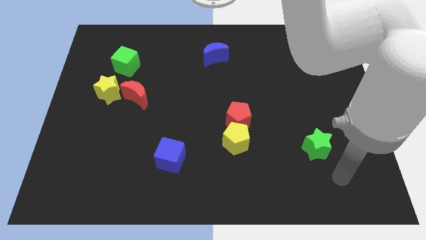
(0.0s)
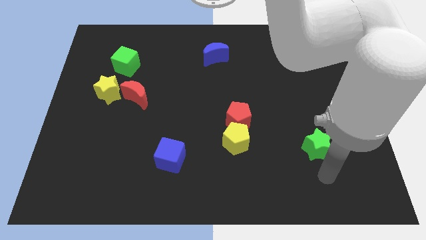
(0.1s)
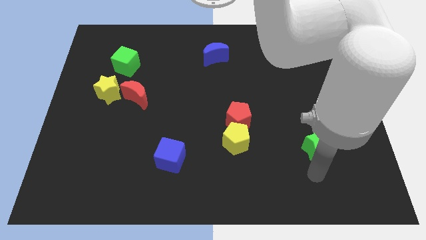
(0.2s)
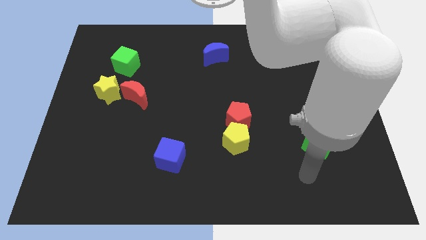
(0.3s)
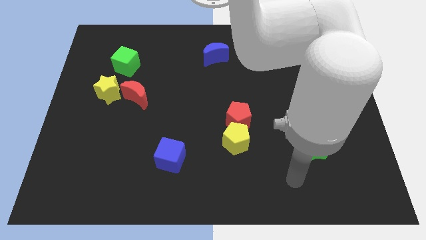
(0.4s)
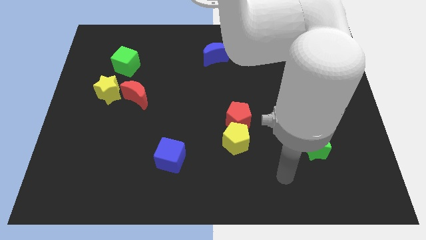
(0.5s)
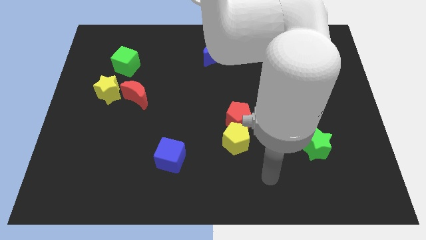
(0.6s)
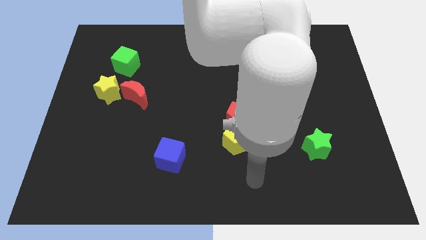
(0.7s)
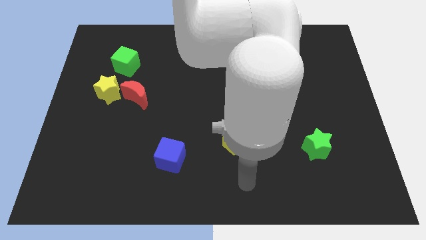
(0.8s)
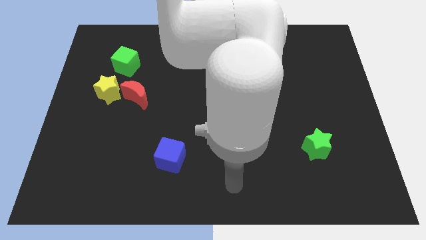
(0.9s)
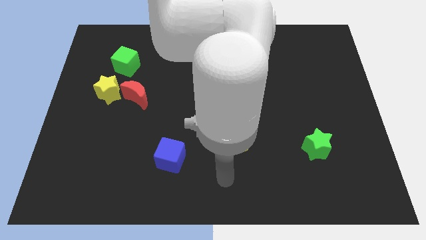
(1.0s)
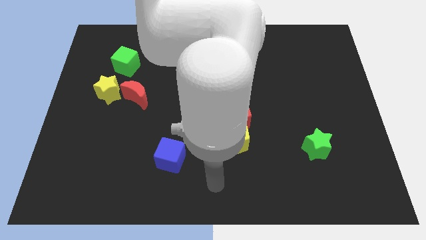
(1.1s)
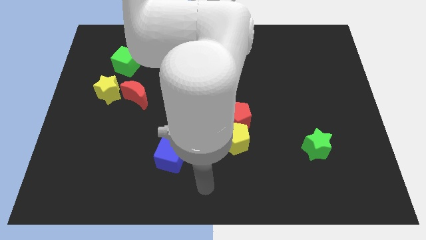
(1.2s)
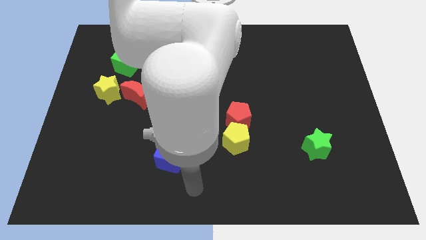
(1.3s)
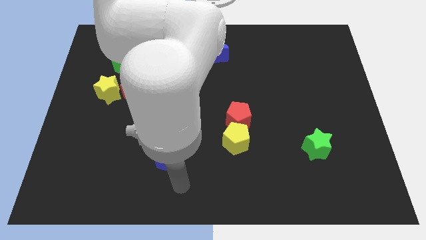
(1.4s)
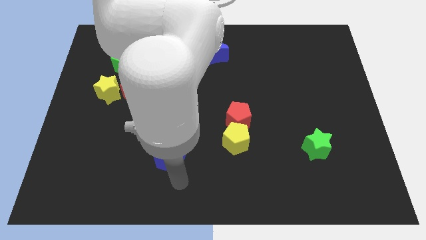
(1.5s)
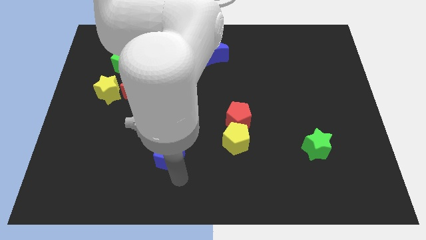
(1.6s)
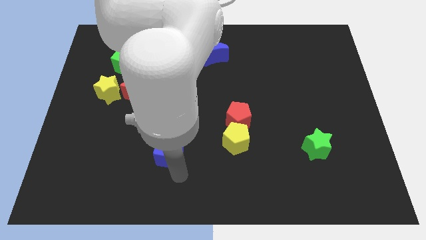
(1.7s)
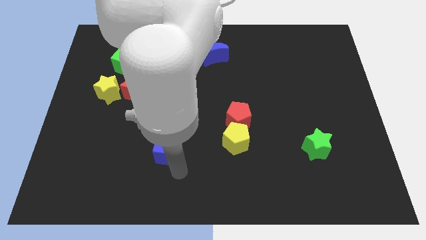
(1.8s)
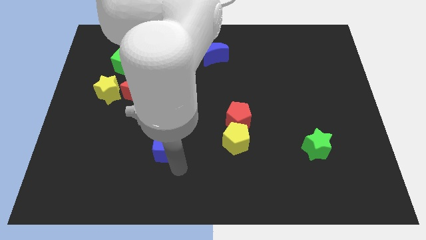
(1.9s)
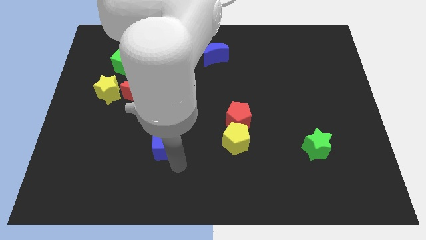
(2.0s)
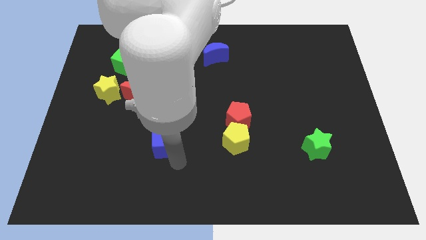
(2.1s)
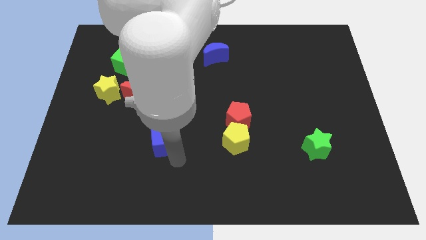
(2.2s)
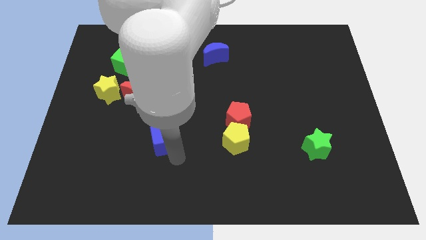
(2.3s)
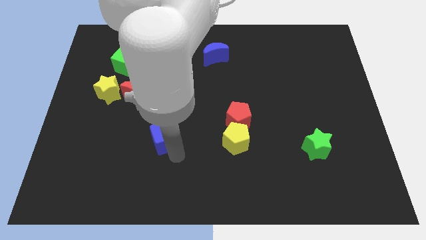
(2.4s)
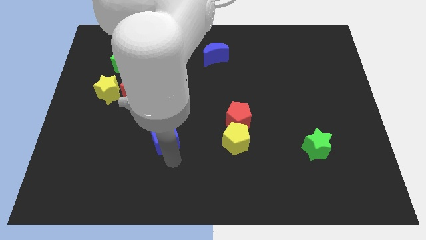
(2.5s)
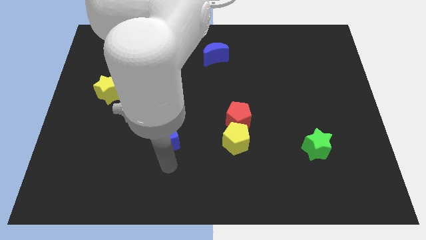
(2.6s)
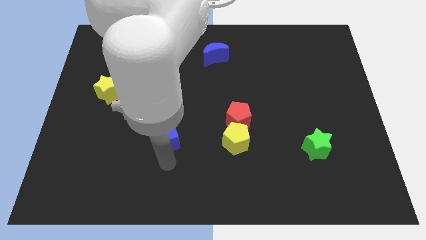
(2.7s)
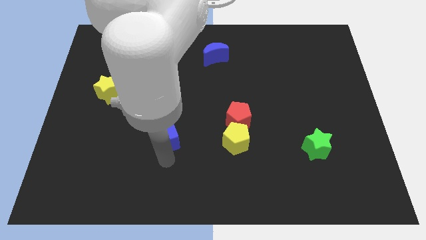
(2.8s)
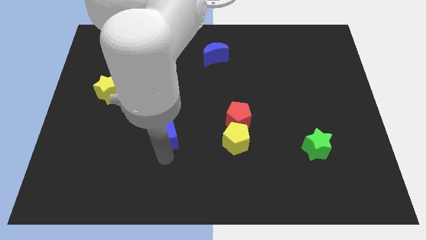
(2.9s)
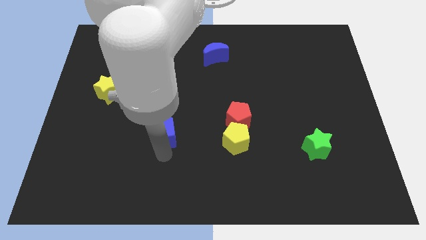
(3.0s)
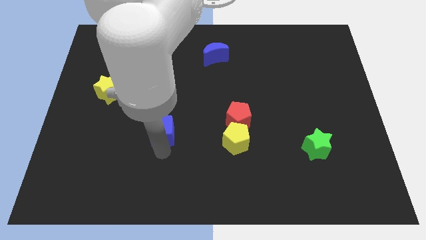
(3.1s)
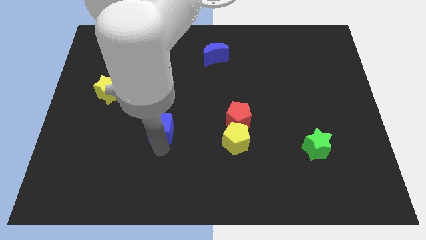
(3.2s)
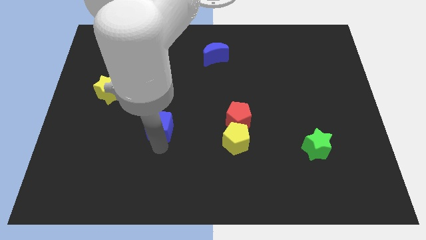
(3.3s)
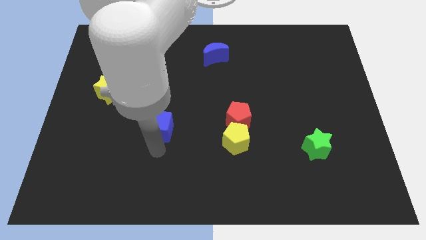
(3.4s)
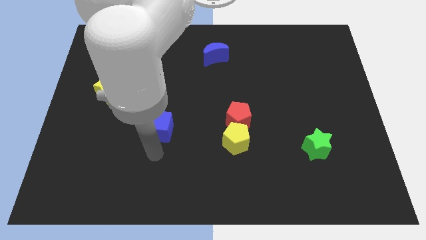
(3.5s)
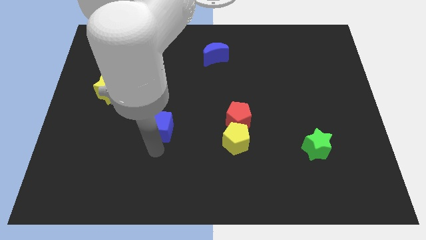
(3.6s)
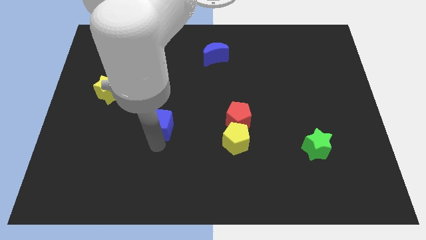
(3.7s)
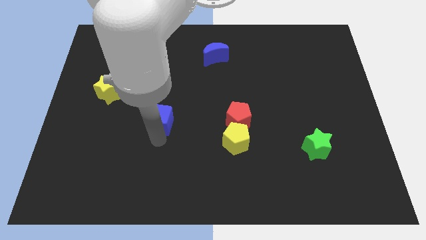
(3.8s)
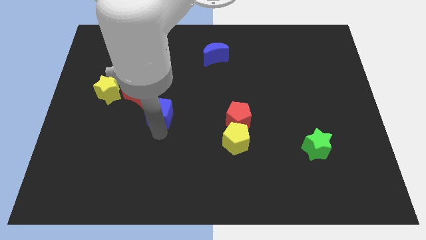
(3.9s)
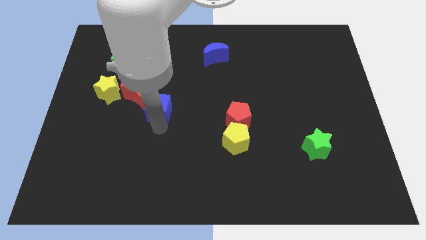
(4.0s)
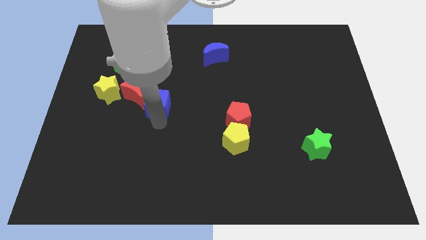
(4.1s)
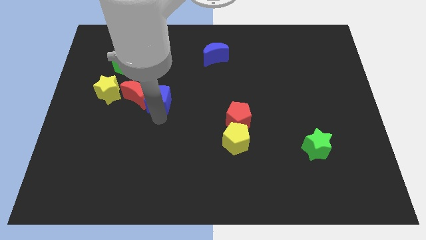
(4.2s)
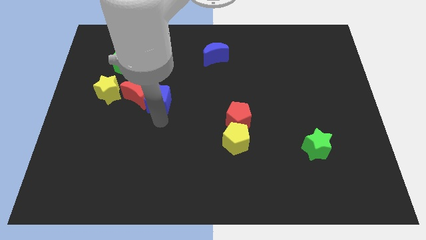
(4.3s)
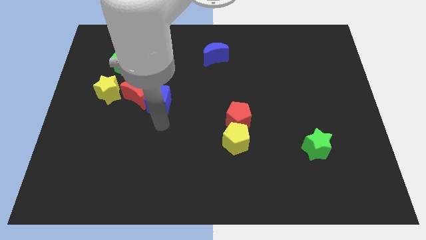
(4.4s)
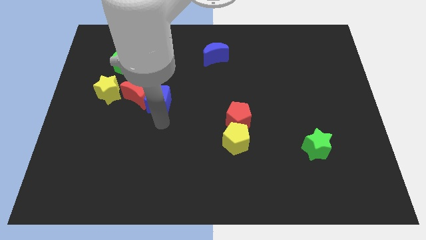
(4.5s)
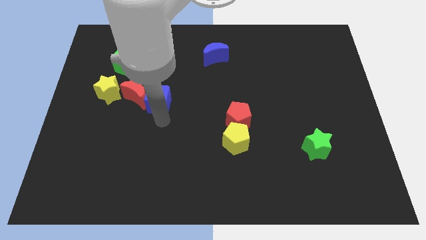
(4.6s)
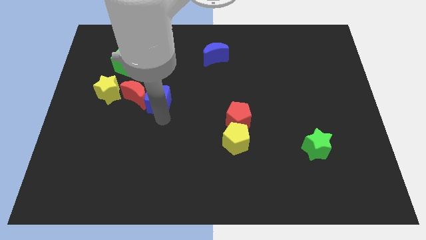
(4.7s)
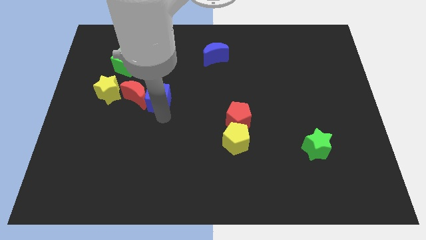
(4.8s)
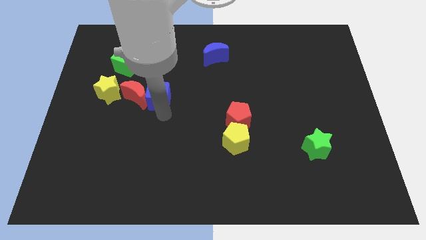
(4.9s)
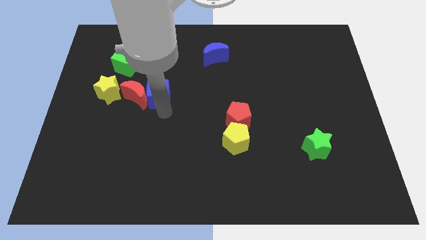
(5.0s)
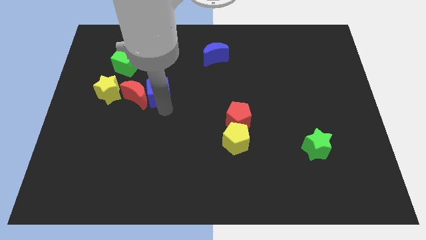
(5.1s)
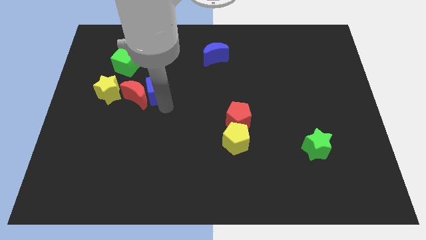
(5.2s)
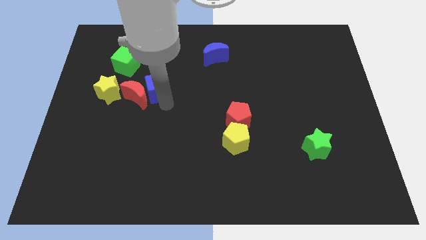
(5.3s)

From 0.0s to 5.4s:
slide the blue cube to the bottom right of the green cube

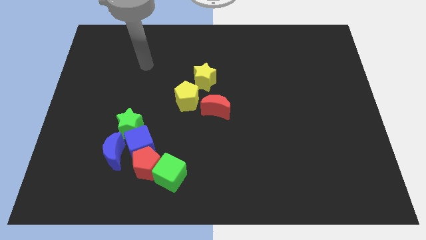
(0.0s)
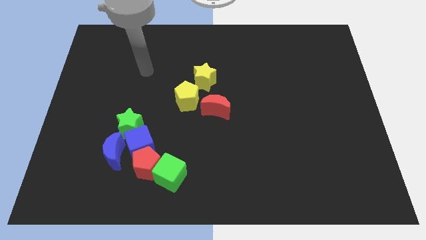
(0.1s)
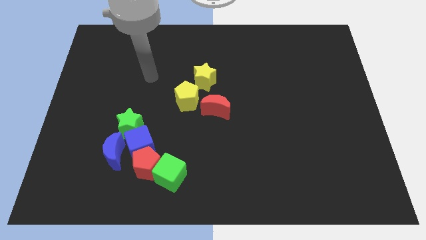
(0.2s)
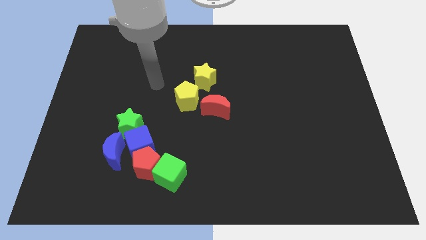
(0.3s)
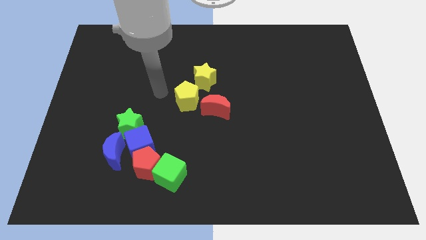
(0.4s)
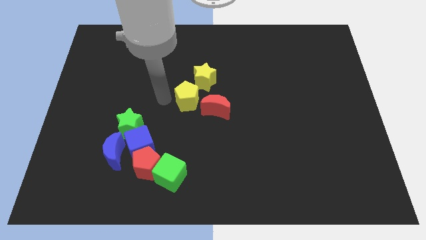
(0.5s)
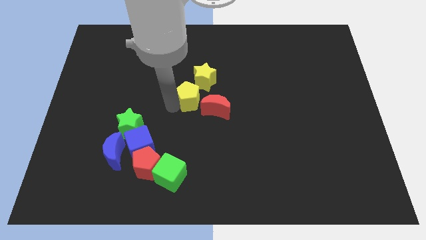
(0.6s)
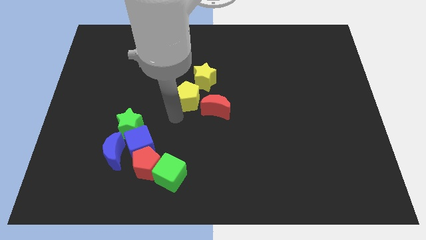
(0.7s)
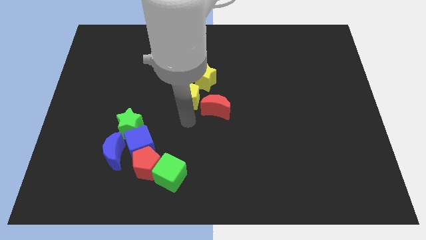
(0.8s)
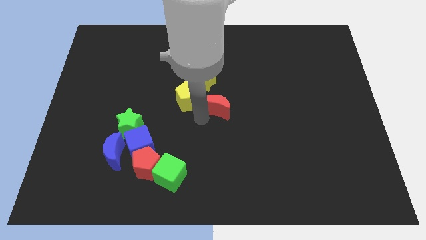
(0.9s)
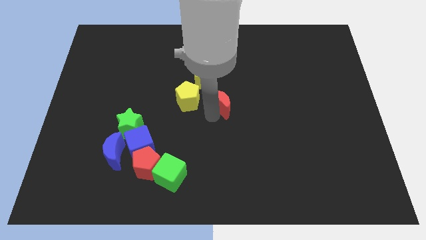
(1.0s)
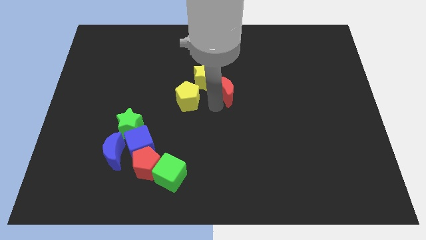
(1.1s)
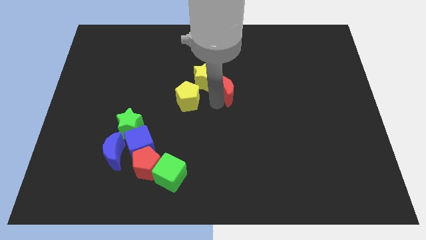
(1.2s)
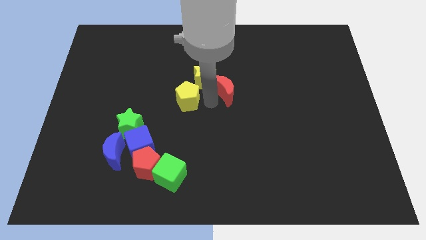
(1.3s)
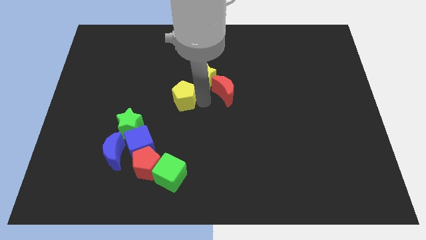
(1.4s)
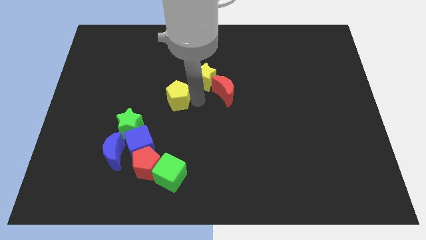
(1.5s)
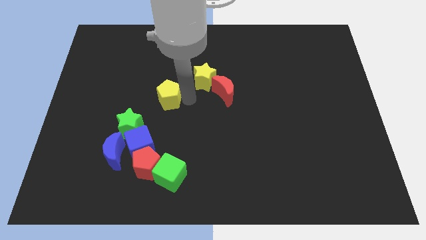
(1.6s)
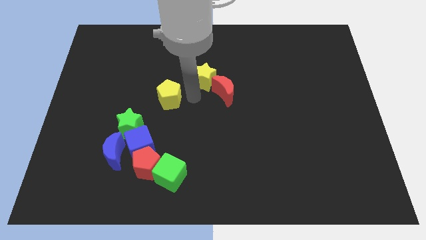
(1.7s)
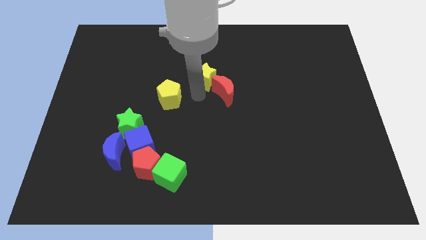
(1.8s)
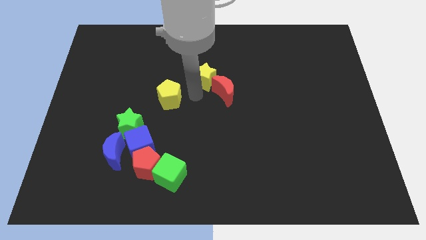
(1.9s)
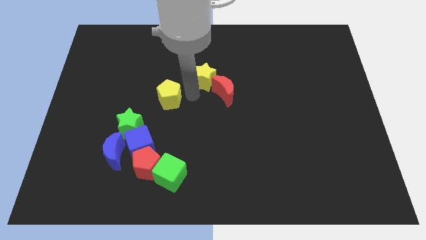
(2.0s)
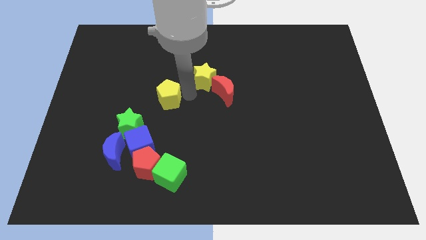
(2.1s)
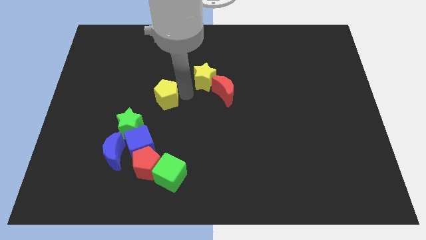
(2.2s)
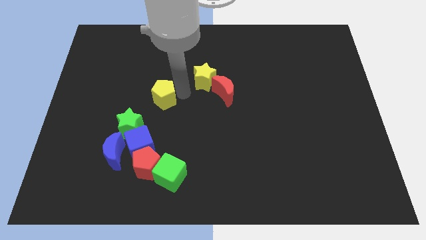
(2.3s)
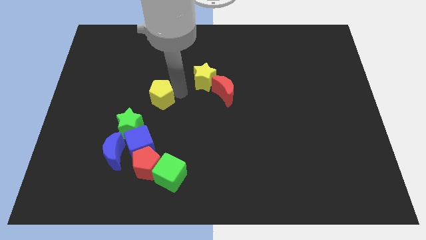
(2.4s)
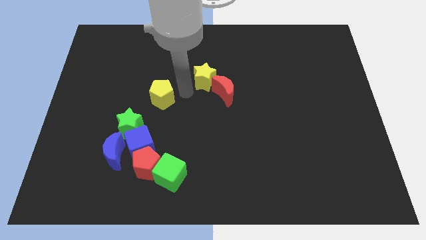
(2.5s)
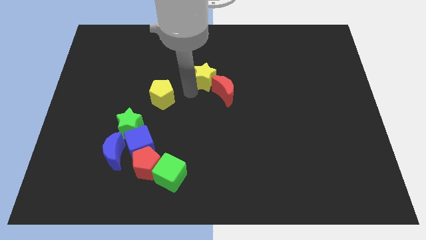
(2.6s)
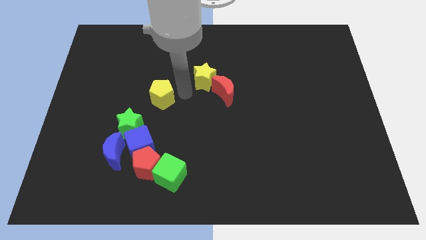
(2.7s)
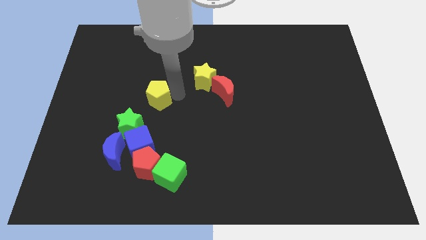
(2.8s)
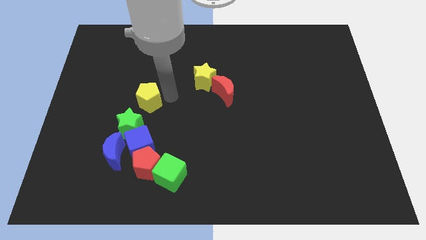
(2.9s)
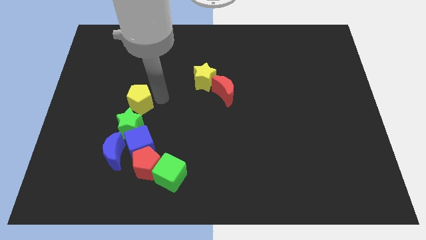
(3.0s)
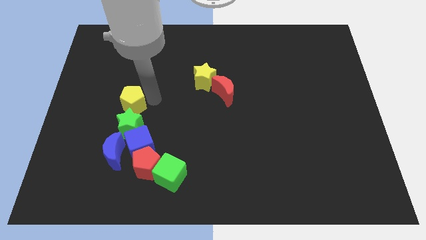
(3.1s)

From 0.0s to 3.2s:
slide the yellow pentagon to the top left of the green star
